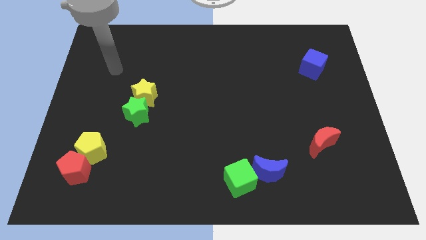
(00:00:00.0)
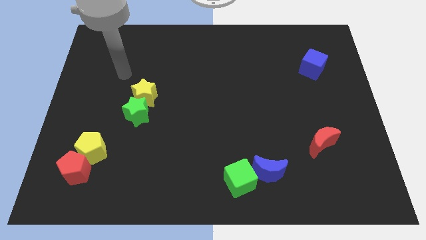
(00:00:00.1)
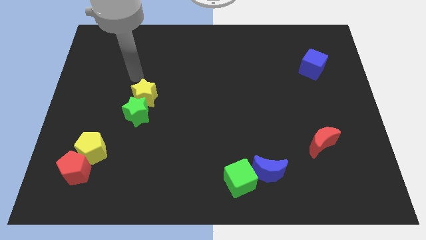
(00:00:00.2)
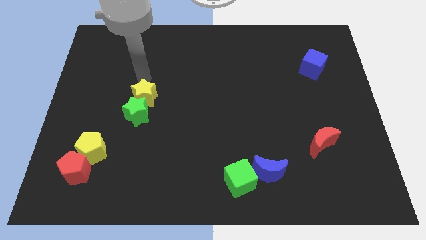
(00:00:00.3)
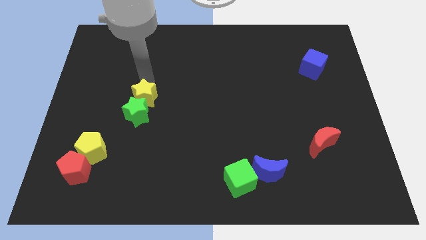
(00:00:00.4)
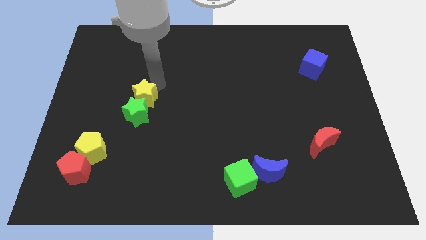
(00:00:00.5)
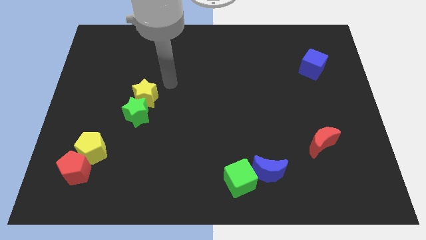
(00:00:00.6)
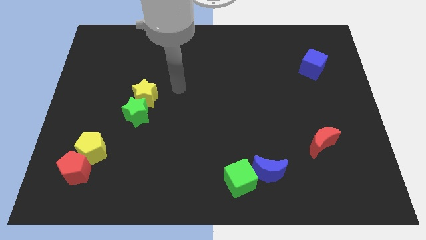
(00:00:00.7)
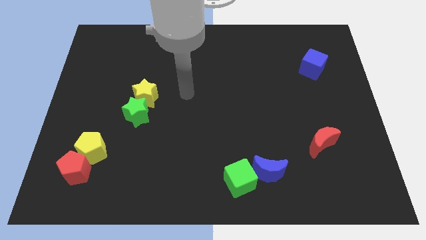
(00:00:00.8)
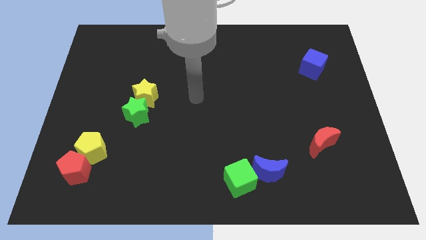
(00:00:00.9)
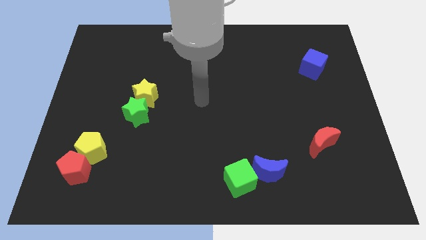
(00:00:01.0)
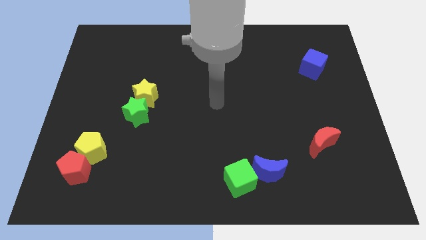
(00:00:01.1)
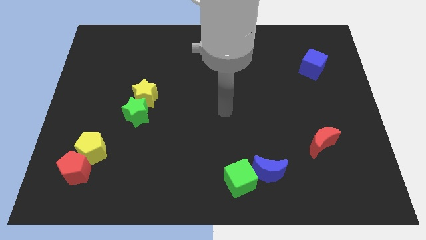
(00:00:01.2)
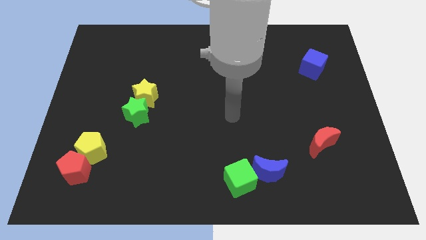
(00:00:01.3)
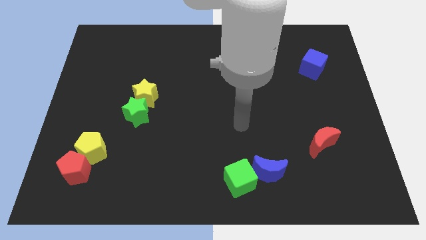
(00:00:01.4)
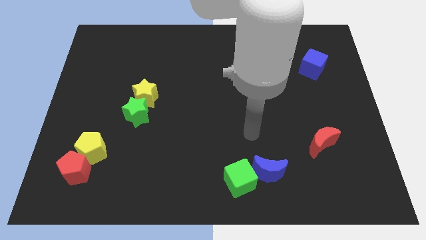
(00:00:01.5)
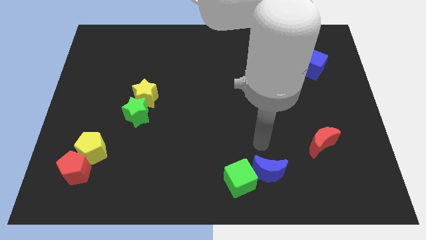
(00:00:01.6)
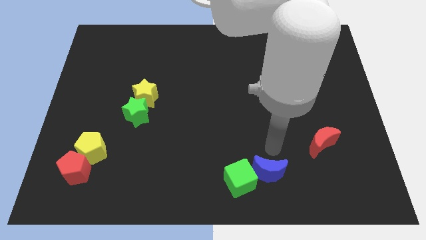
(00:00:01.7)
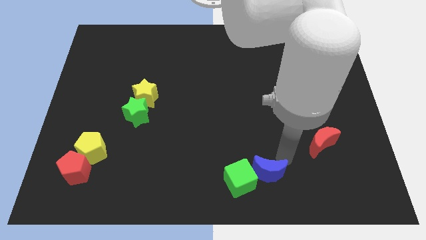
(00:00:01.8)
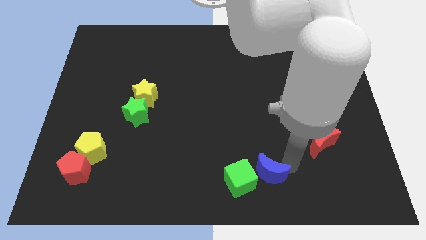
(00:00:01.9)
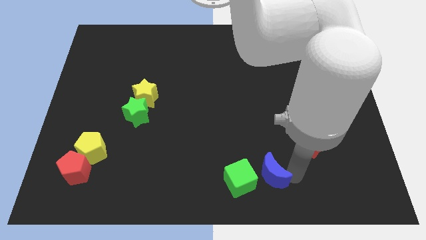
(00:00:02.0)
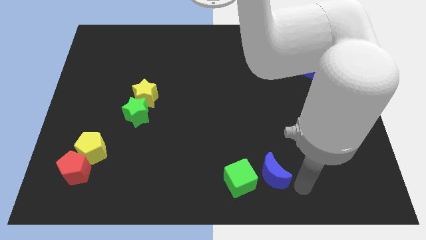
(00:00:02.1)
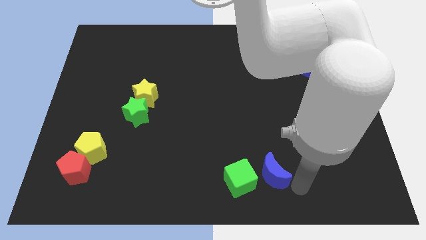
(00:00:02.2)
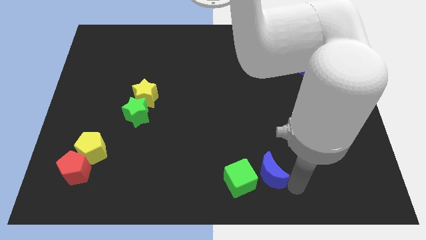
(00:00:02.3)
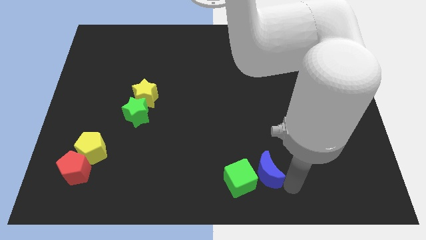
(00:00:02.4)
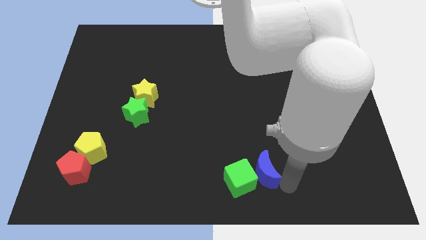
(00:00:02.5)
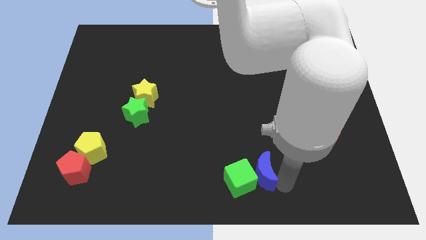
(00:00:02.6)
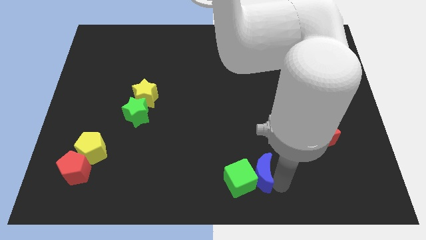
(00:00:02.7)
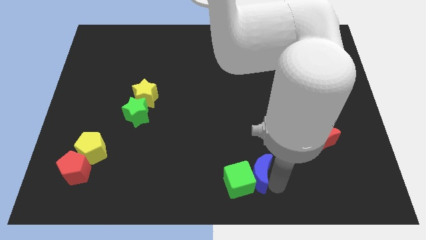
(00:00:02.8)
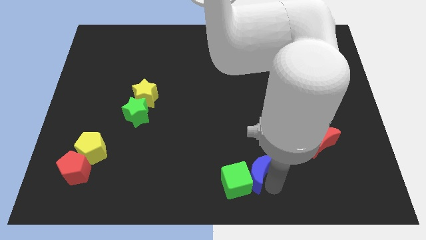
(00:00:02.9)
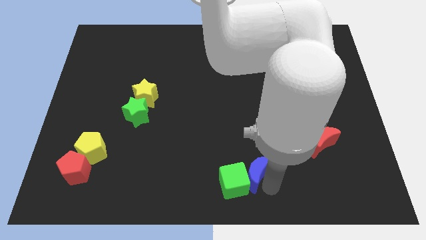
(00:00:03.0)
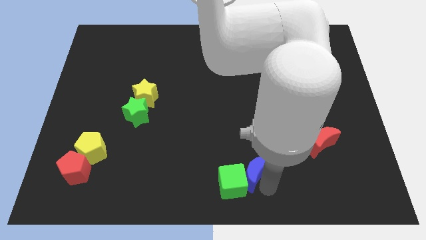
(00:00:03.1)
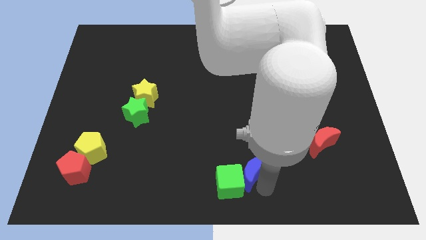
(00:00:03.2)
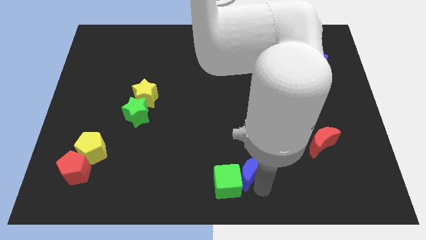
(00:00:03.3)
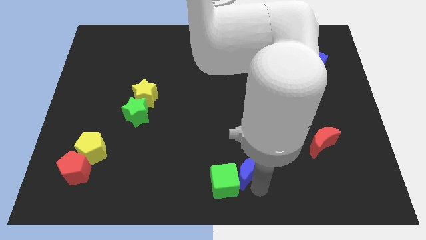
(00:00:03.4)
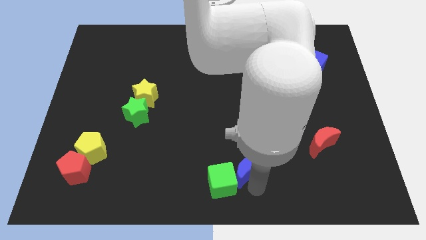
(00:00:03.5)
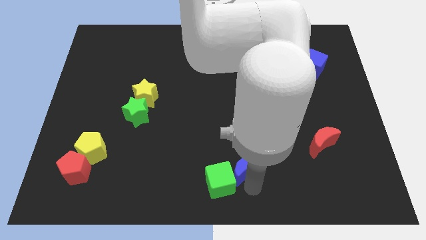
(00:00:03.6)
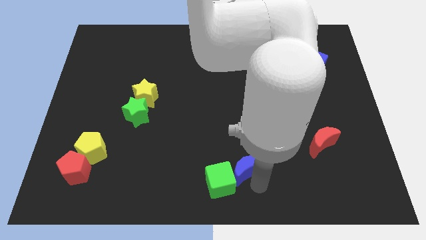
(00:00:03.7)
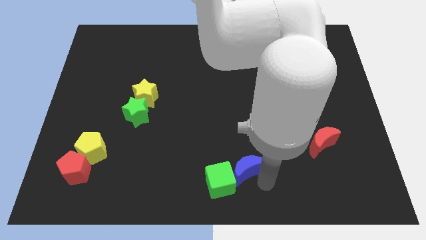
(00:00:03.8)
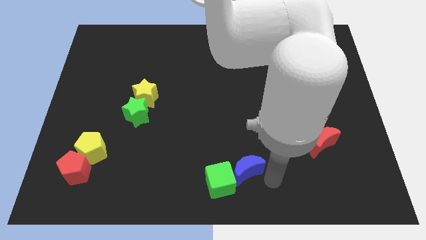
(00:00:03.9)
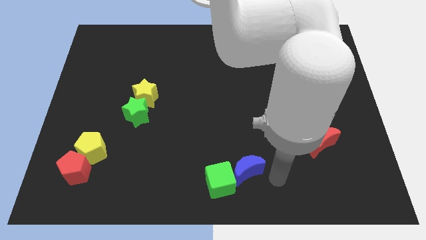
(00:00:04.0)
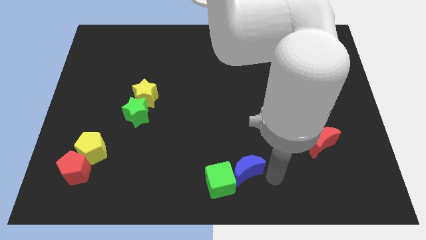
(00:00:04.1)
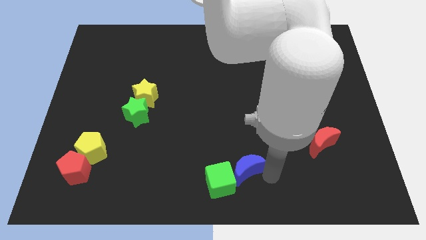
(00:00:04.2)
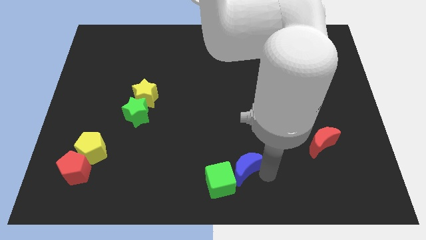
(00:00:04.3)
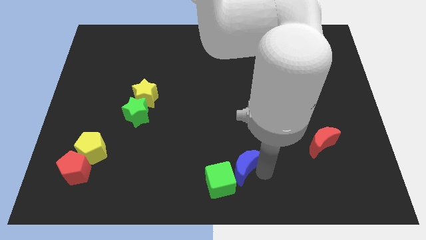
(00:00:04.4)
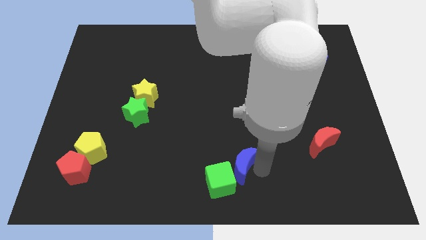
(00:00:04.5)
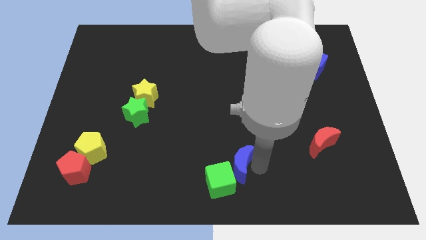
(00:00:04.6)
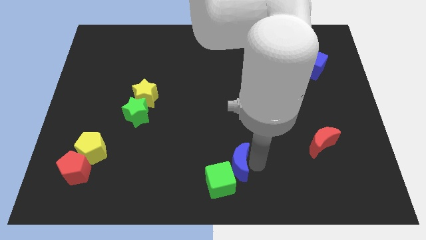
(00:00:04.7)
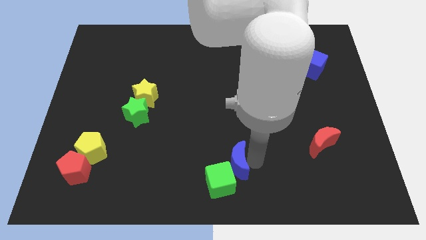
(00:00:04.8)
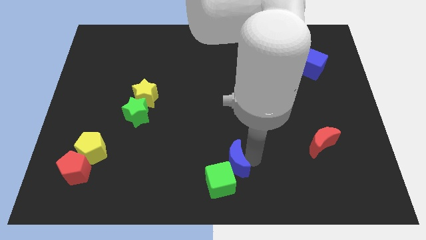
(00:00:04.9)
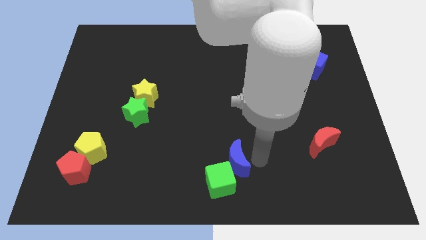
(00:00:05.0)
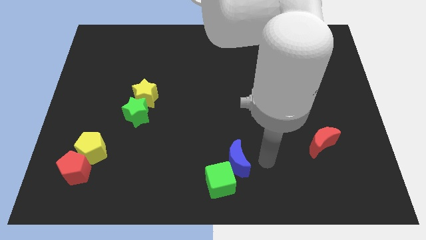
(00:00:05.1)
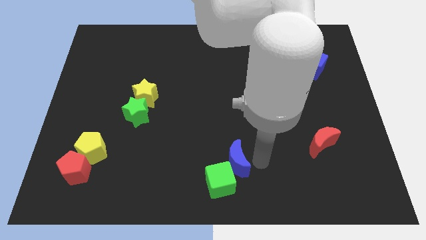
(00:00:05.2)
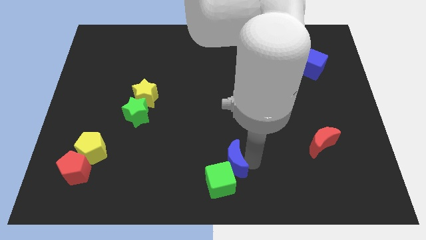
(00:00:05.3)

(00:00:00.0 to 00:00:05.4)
slide the blue moon to the left a little

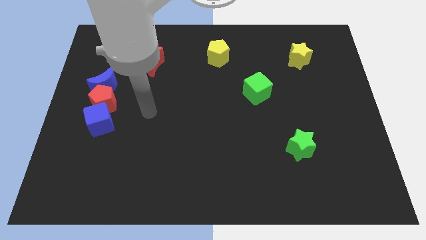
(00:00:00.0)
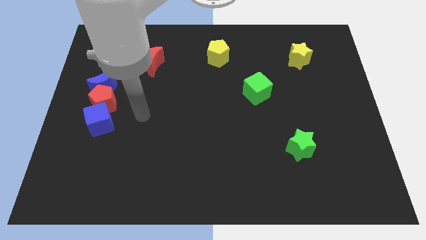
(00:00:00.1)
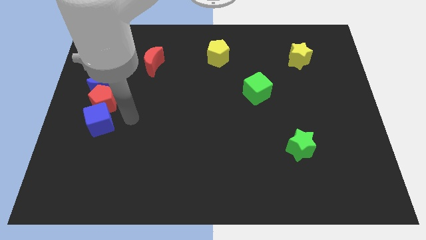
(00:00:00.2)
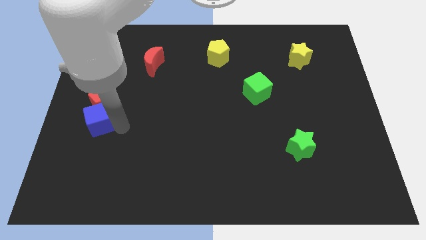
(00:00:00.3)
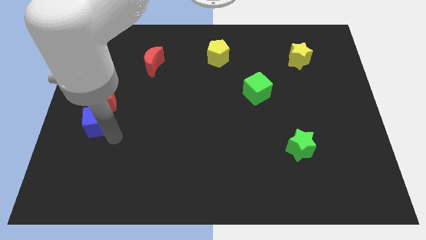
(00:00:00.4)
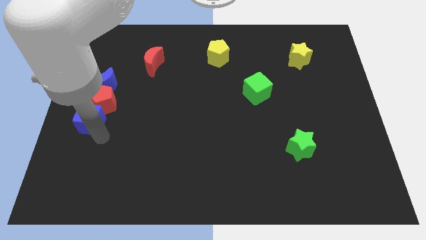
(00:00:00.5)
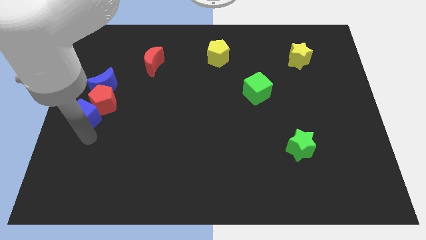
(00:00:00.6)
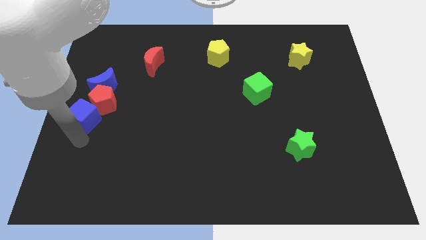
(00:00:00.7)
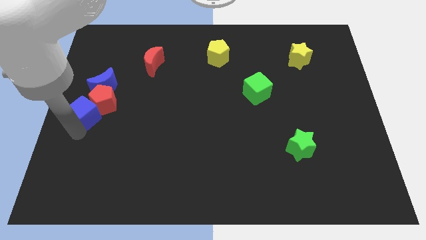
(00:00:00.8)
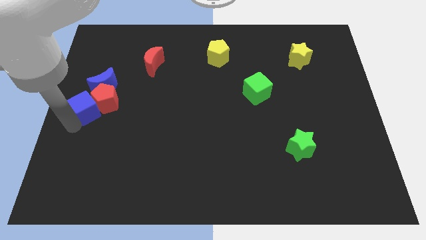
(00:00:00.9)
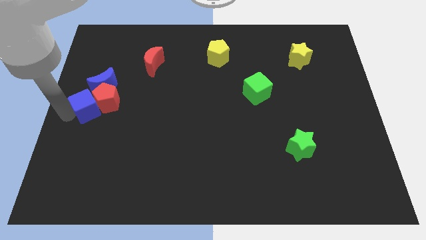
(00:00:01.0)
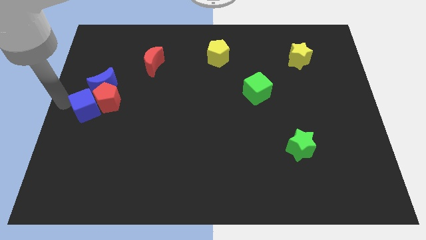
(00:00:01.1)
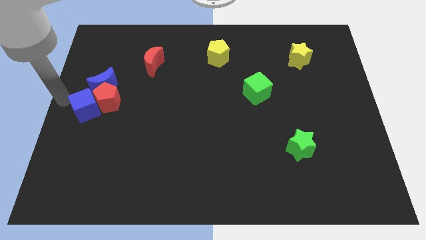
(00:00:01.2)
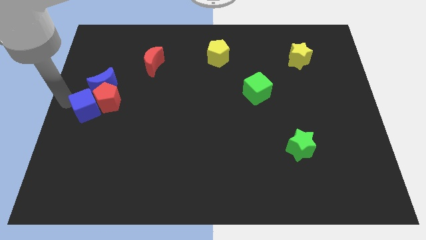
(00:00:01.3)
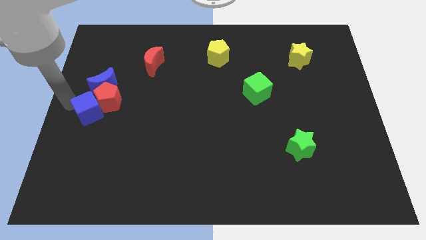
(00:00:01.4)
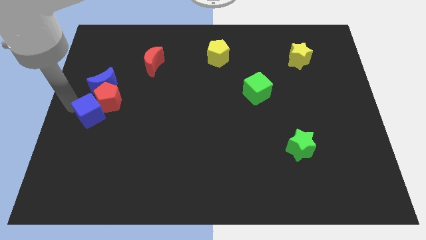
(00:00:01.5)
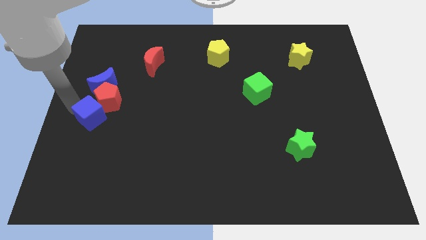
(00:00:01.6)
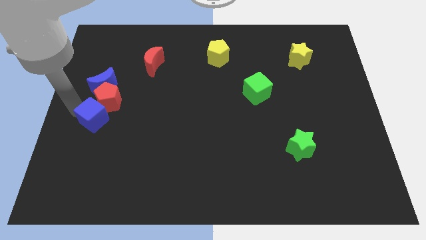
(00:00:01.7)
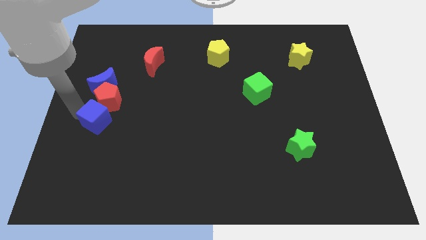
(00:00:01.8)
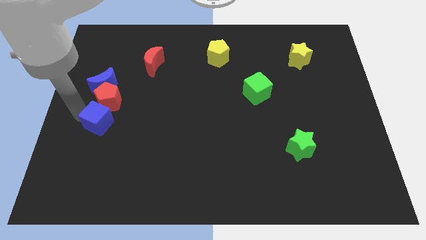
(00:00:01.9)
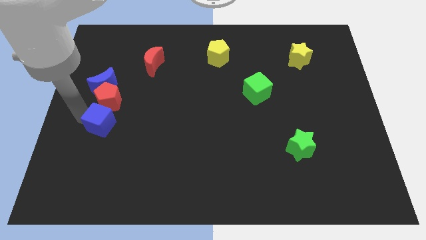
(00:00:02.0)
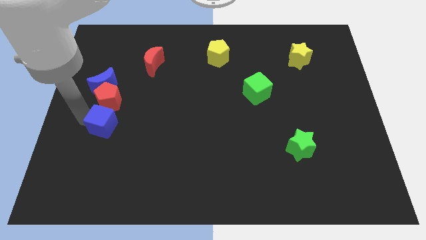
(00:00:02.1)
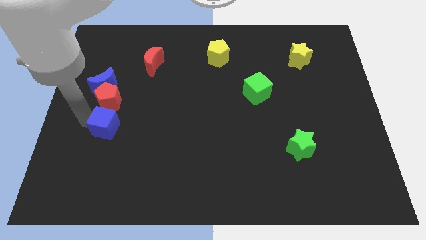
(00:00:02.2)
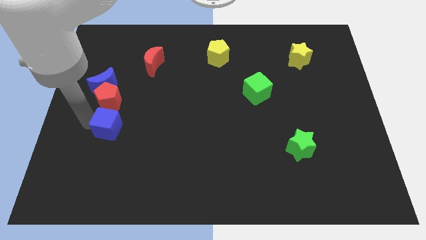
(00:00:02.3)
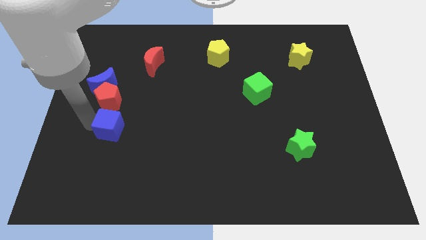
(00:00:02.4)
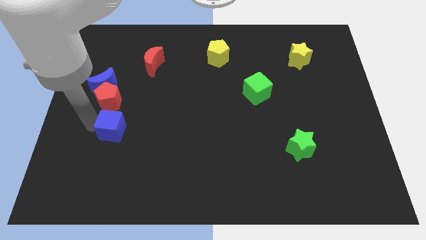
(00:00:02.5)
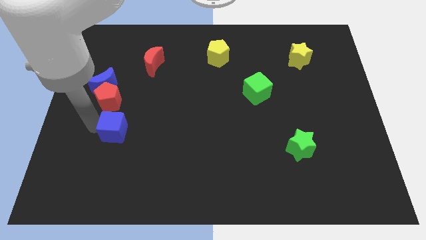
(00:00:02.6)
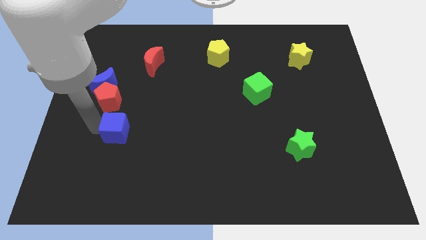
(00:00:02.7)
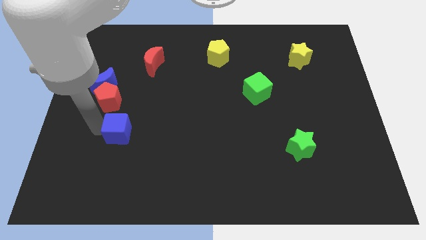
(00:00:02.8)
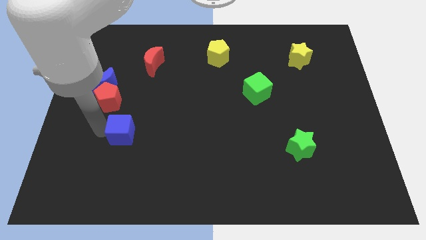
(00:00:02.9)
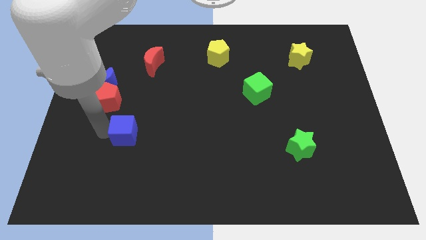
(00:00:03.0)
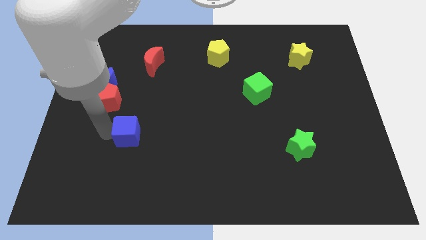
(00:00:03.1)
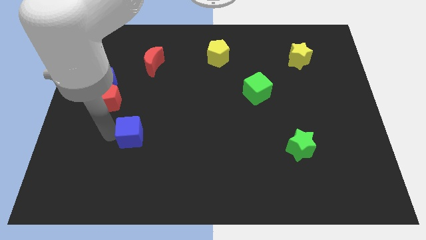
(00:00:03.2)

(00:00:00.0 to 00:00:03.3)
push the blue cube to the right slightly
